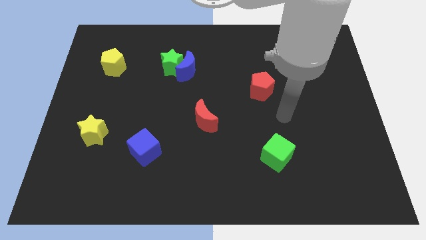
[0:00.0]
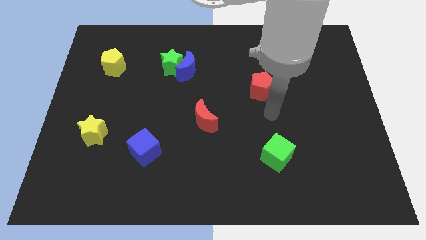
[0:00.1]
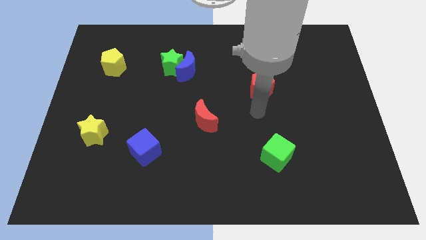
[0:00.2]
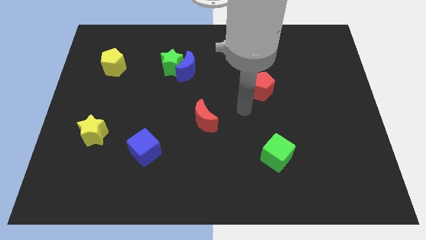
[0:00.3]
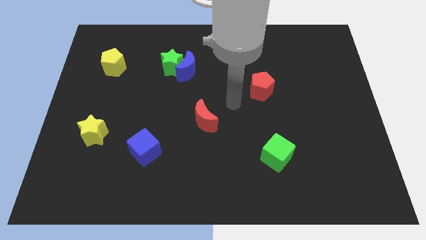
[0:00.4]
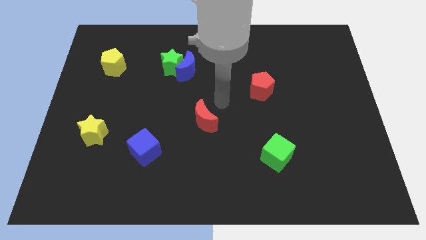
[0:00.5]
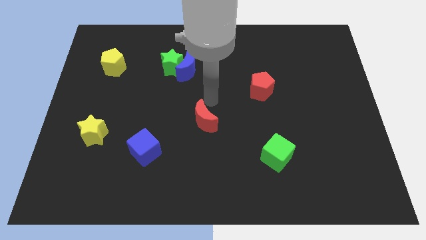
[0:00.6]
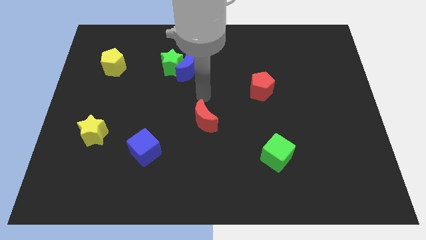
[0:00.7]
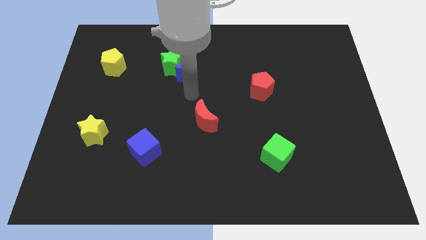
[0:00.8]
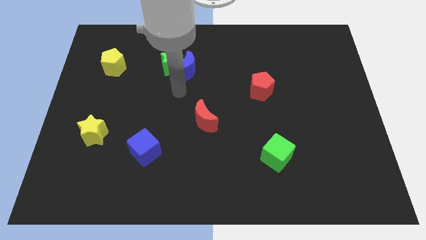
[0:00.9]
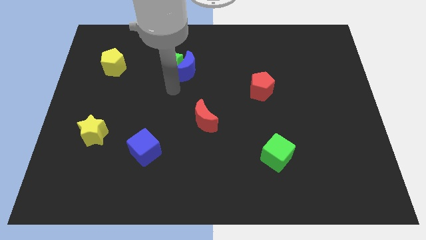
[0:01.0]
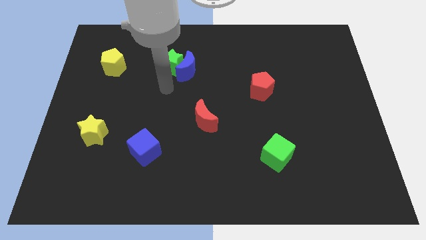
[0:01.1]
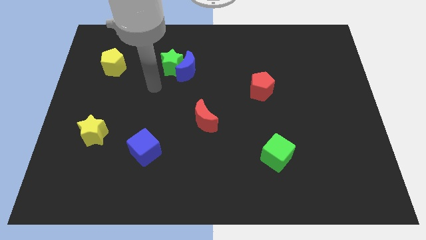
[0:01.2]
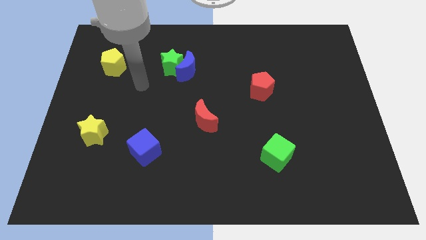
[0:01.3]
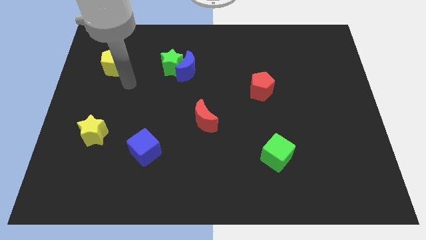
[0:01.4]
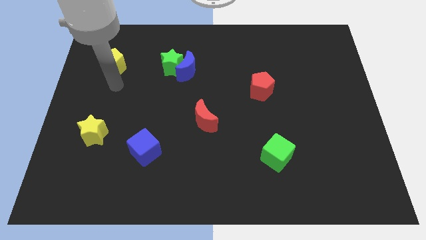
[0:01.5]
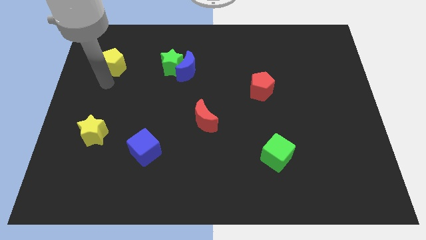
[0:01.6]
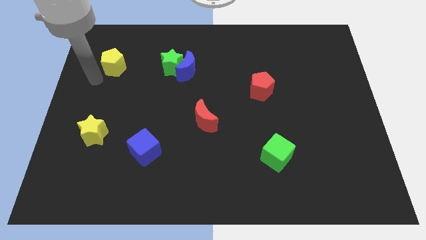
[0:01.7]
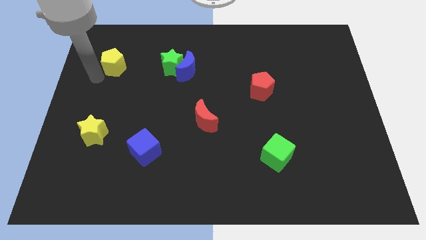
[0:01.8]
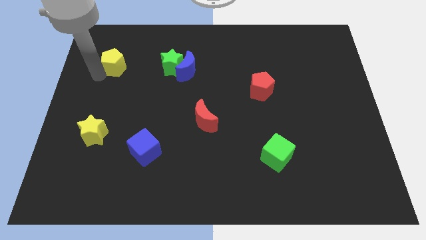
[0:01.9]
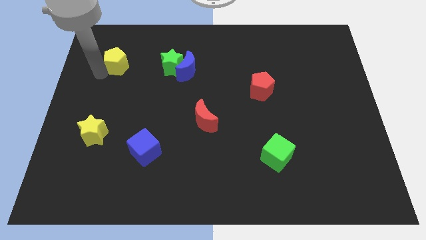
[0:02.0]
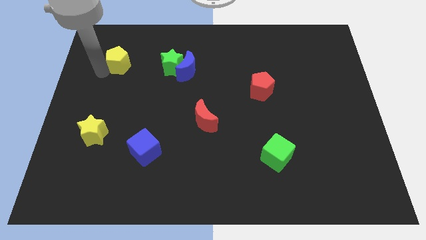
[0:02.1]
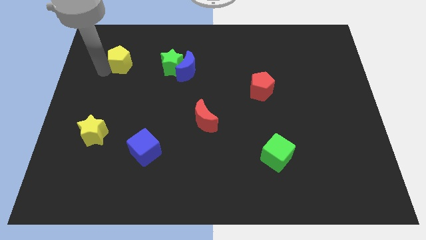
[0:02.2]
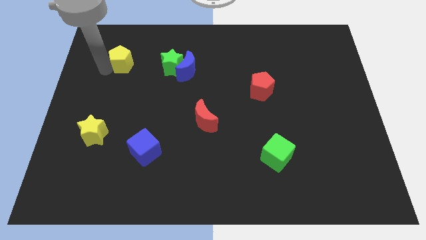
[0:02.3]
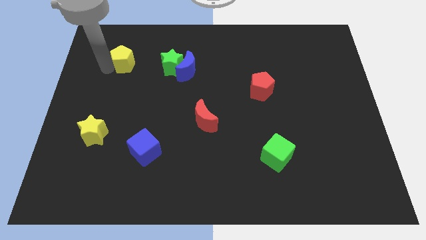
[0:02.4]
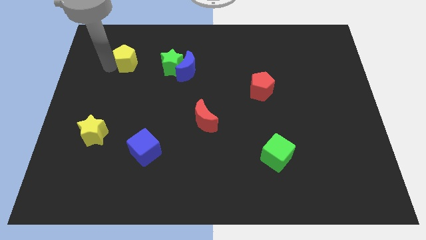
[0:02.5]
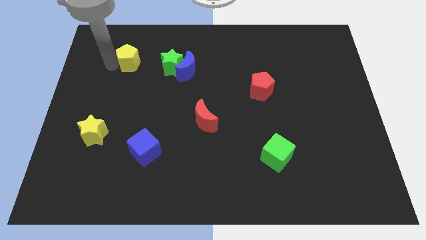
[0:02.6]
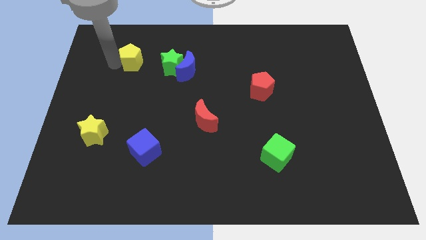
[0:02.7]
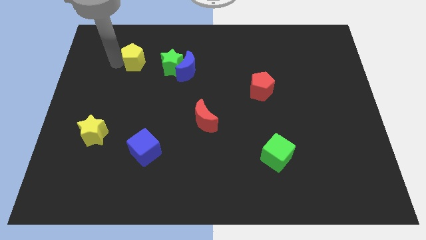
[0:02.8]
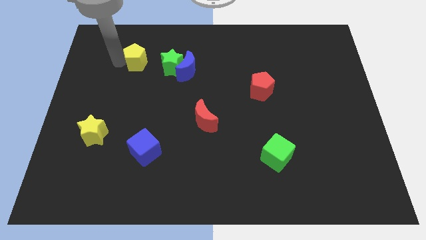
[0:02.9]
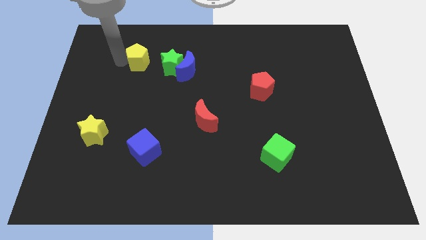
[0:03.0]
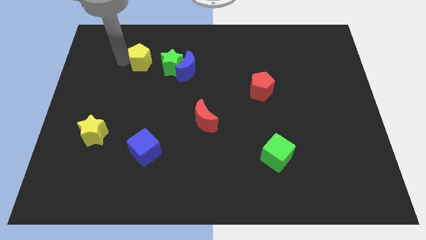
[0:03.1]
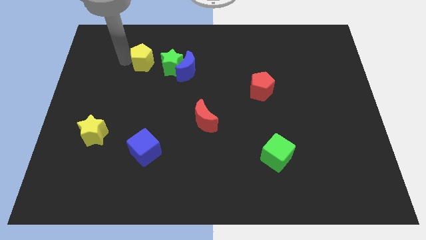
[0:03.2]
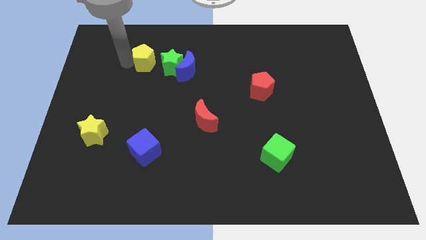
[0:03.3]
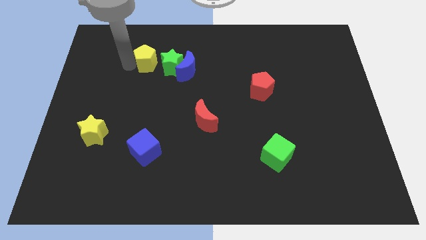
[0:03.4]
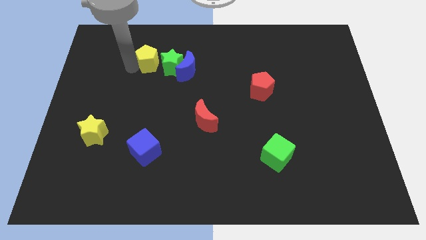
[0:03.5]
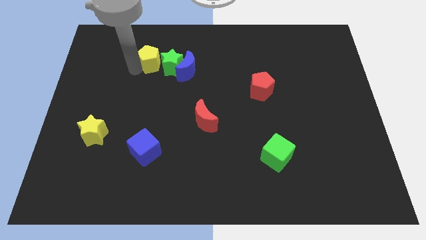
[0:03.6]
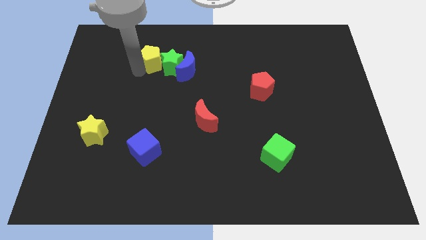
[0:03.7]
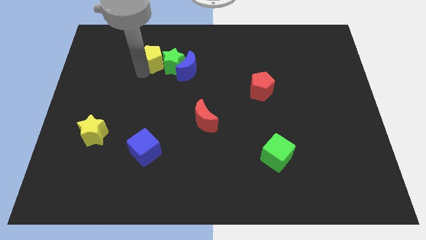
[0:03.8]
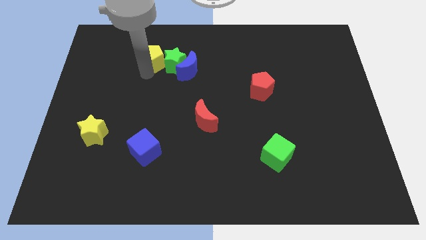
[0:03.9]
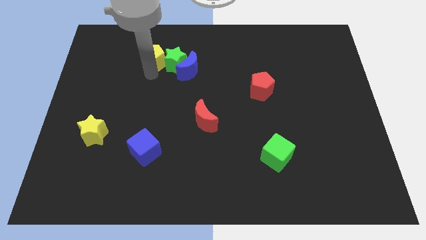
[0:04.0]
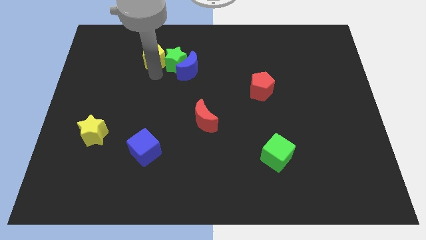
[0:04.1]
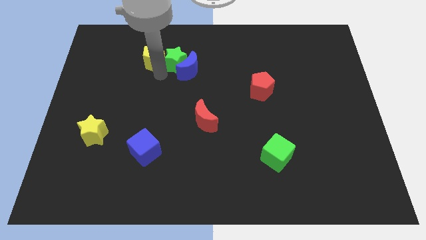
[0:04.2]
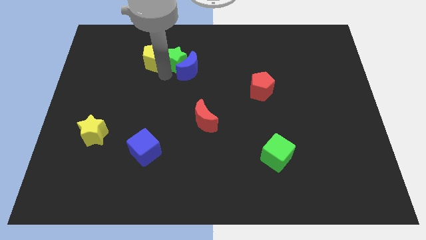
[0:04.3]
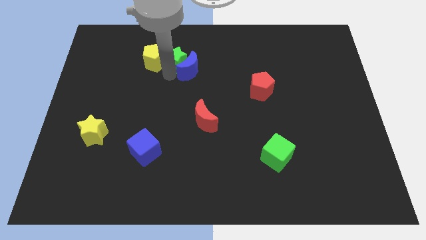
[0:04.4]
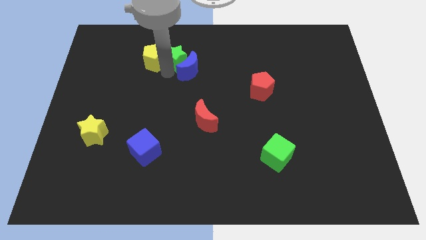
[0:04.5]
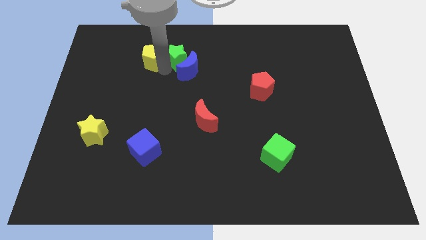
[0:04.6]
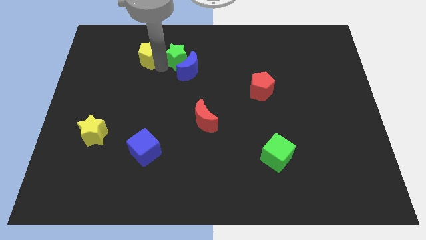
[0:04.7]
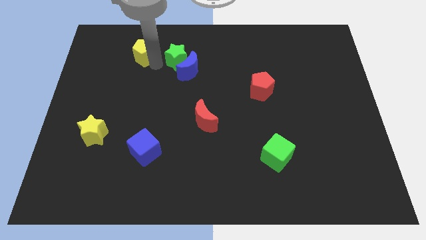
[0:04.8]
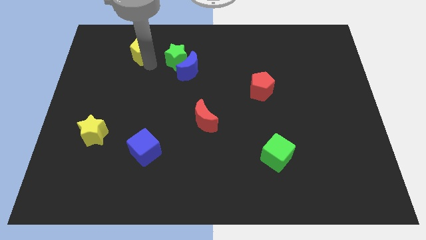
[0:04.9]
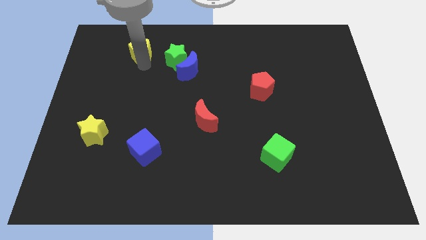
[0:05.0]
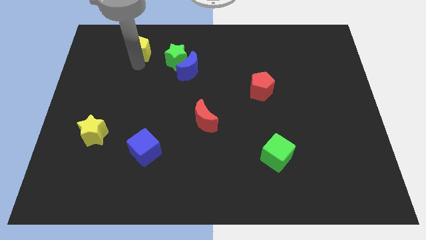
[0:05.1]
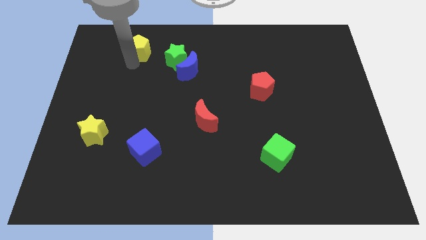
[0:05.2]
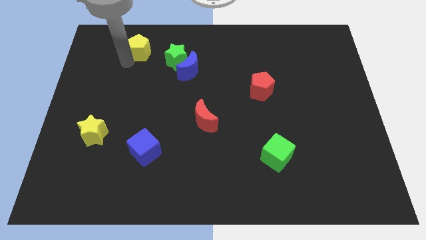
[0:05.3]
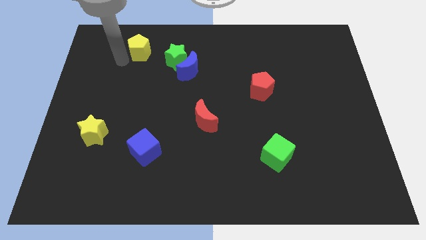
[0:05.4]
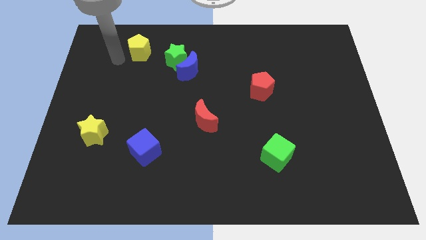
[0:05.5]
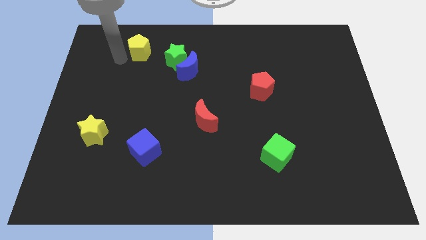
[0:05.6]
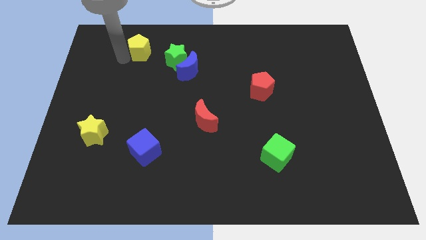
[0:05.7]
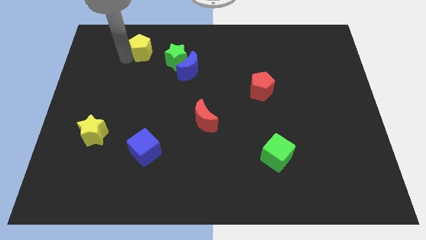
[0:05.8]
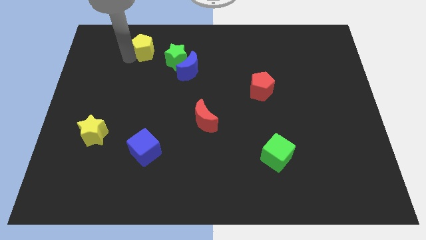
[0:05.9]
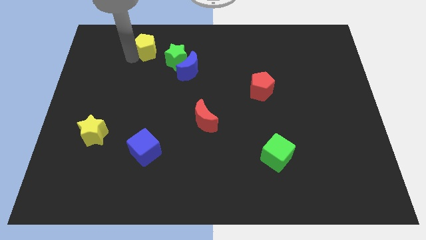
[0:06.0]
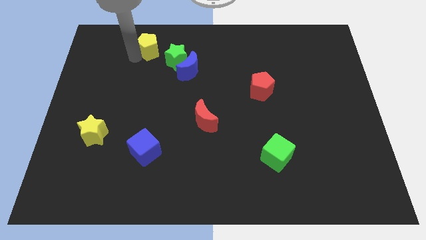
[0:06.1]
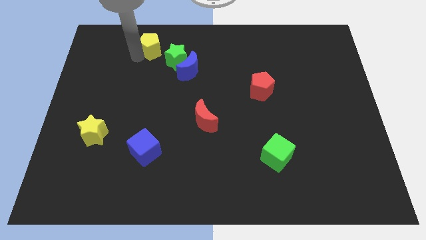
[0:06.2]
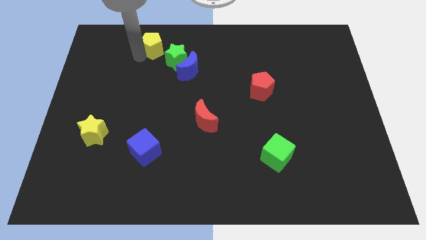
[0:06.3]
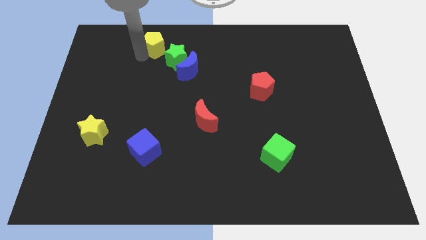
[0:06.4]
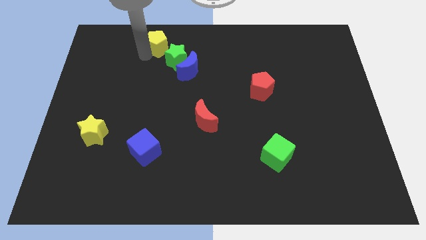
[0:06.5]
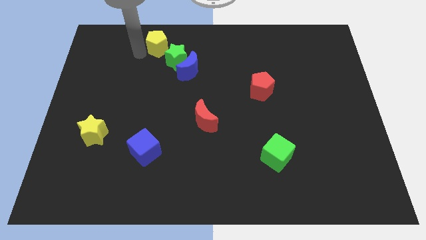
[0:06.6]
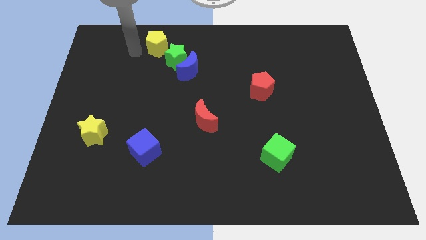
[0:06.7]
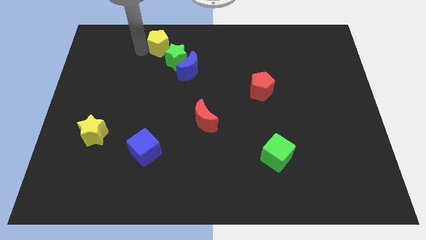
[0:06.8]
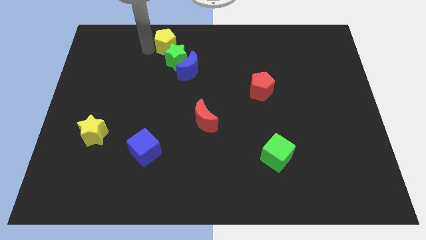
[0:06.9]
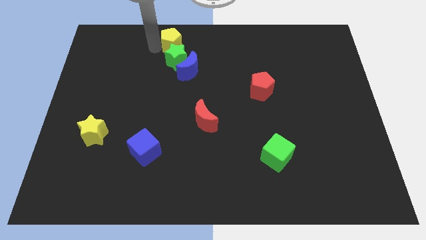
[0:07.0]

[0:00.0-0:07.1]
put the yellow pentagon to the towards your base
